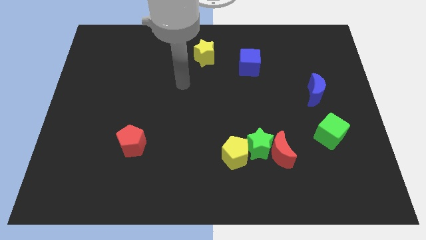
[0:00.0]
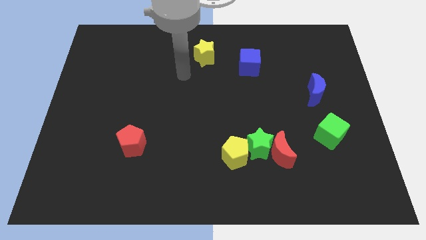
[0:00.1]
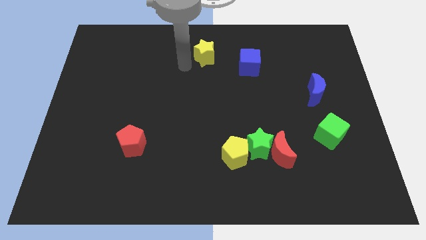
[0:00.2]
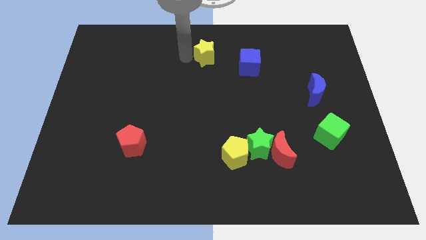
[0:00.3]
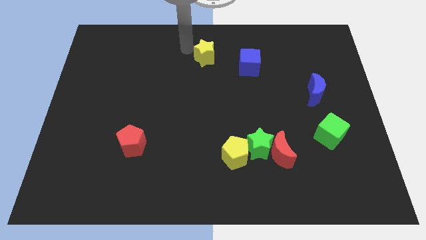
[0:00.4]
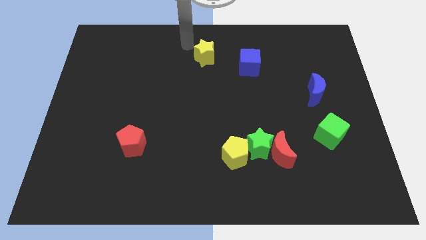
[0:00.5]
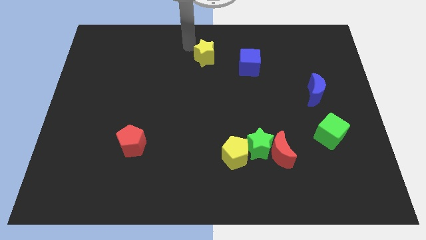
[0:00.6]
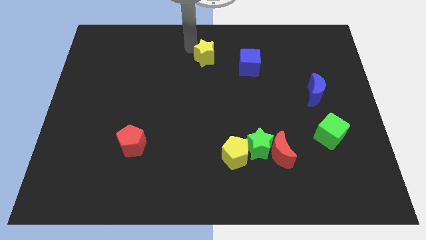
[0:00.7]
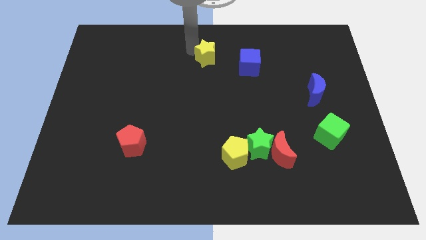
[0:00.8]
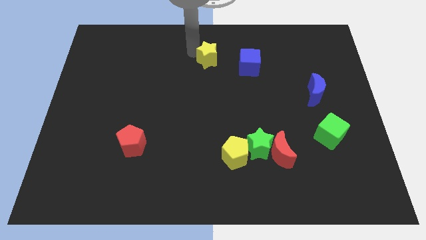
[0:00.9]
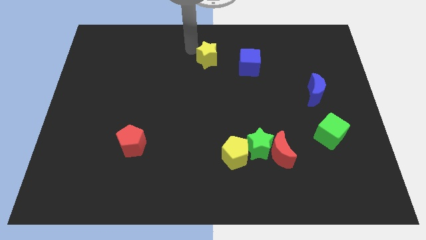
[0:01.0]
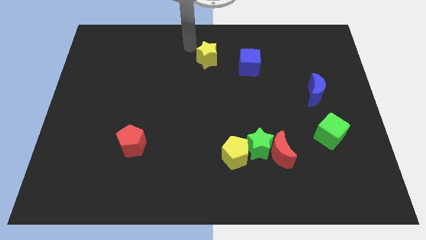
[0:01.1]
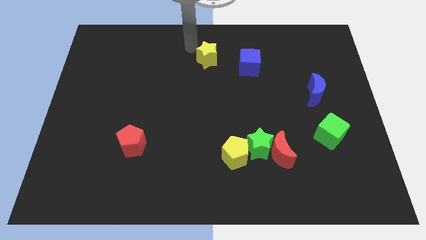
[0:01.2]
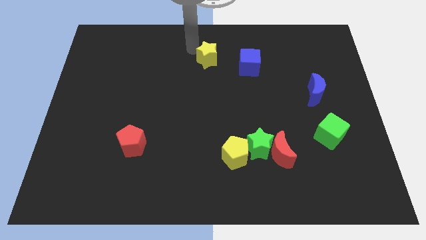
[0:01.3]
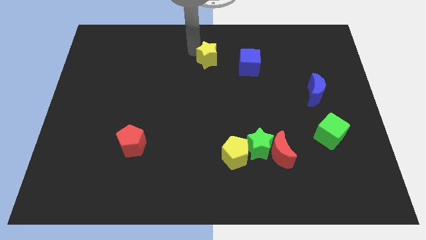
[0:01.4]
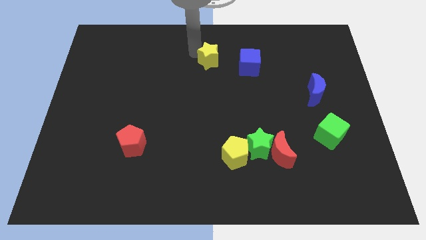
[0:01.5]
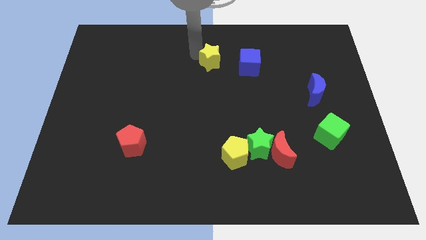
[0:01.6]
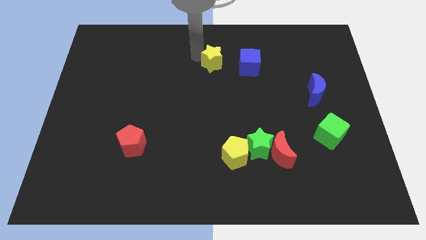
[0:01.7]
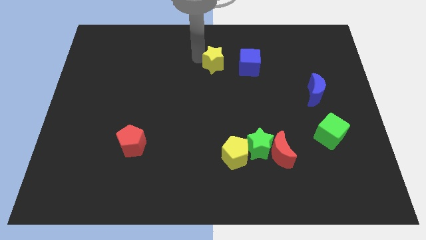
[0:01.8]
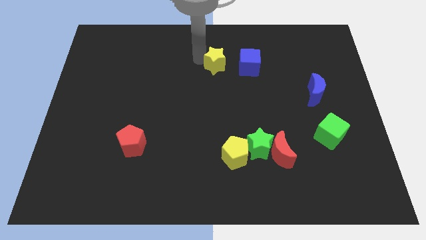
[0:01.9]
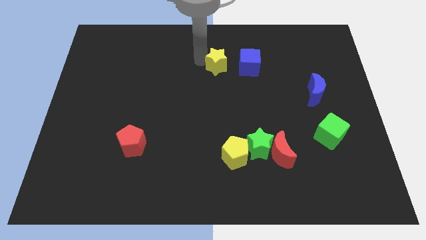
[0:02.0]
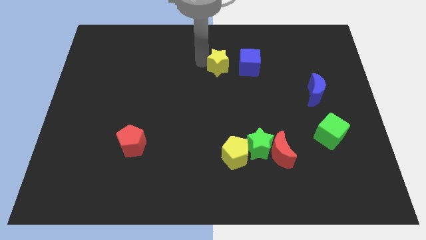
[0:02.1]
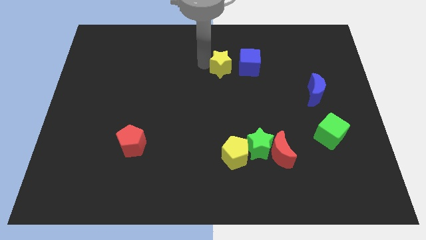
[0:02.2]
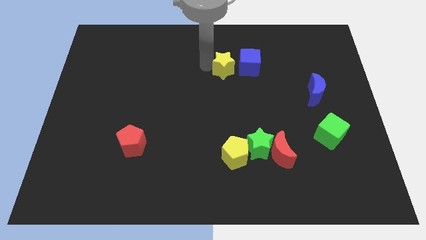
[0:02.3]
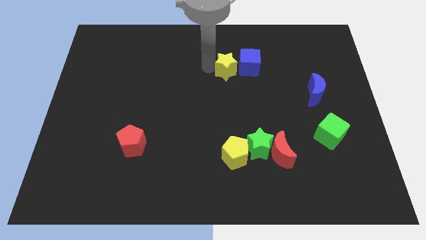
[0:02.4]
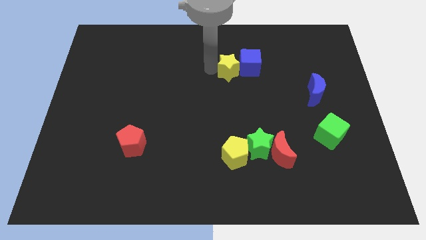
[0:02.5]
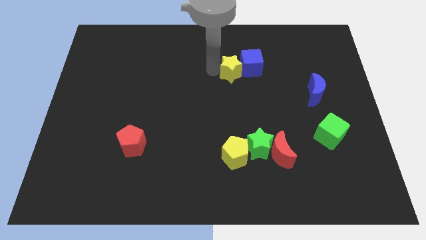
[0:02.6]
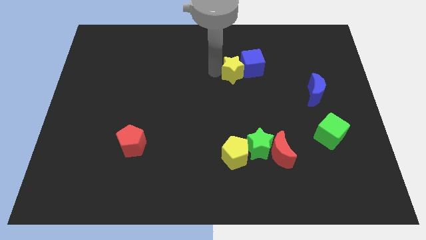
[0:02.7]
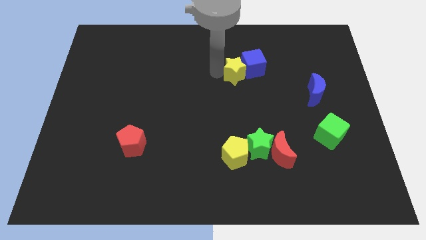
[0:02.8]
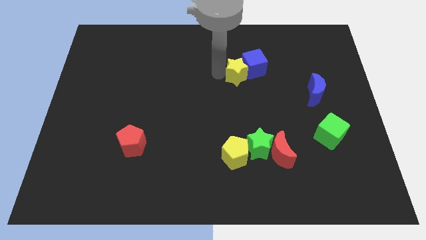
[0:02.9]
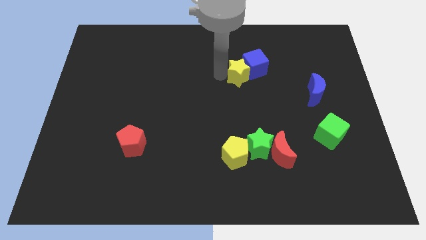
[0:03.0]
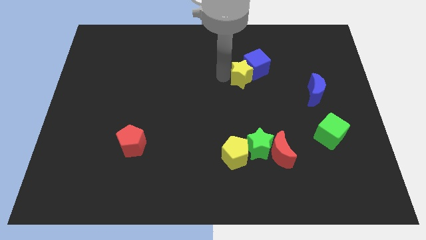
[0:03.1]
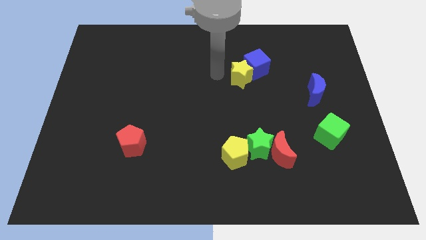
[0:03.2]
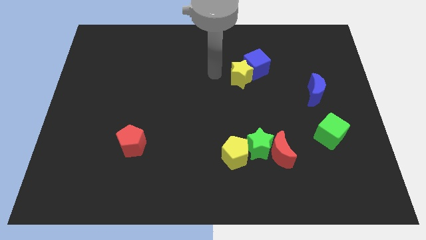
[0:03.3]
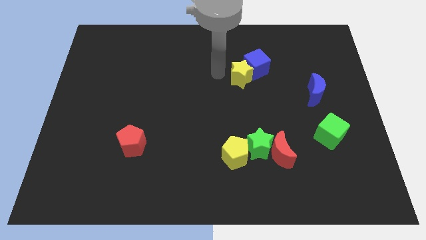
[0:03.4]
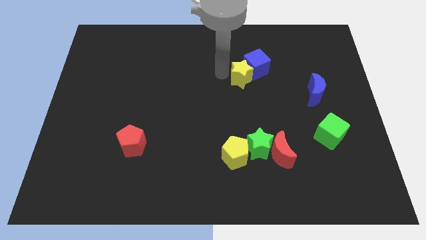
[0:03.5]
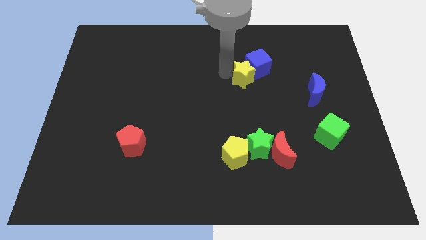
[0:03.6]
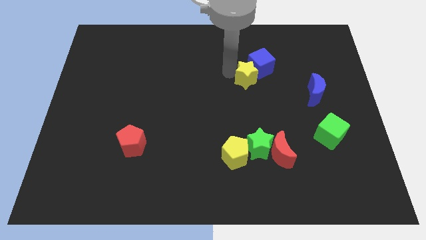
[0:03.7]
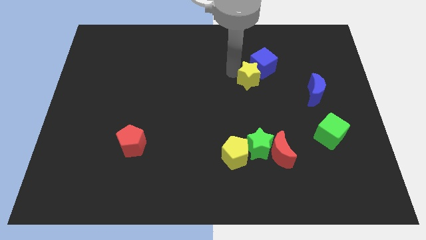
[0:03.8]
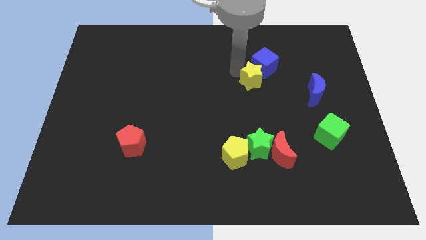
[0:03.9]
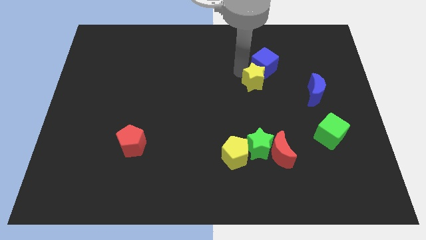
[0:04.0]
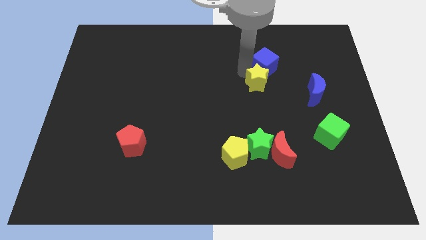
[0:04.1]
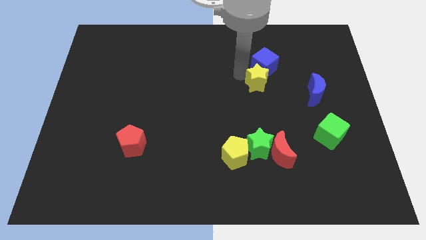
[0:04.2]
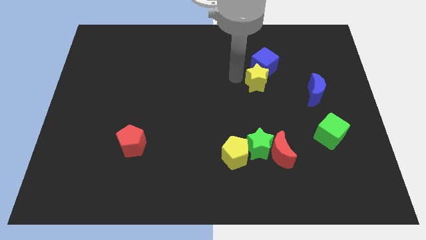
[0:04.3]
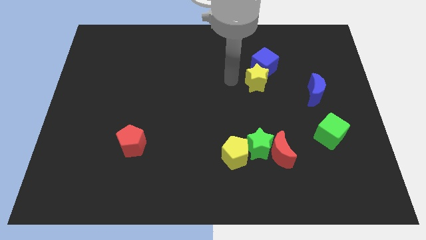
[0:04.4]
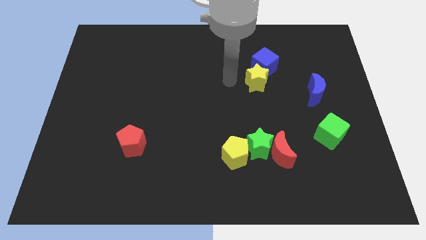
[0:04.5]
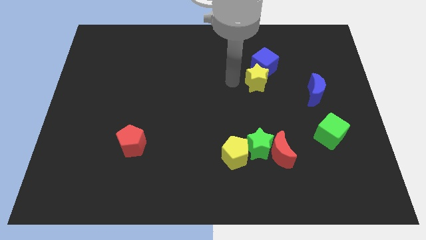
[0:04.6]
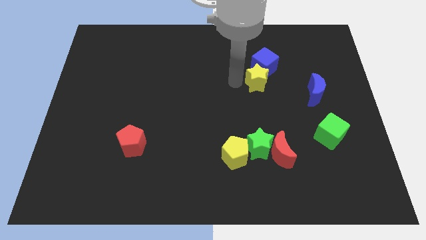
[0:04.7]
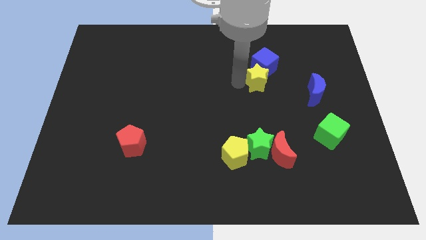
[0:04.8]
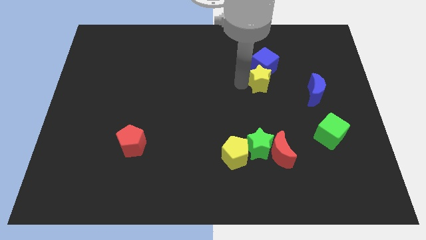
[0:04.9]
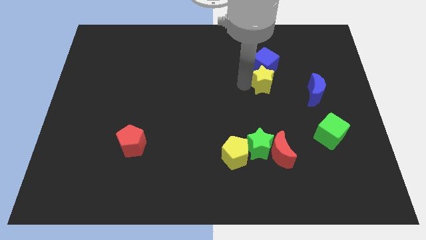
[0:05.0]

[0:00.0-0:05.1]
put the yellow star to the bottom right of the blue cube

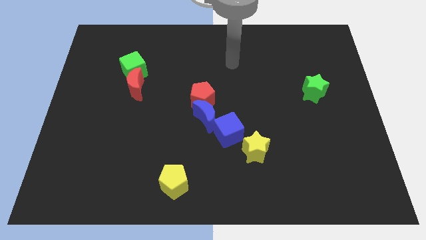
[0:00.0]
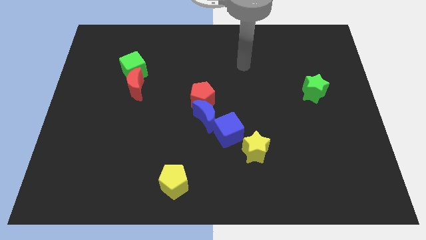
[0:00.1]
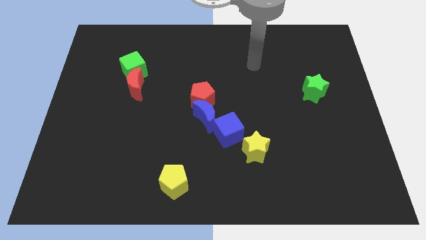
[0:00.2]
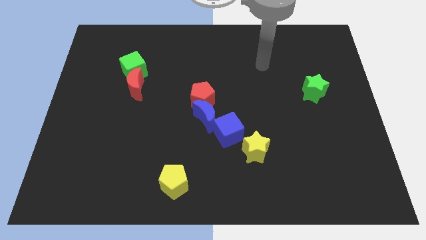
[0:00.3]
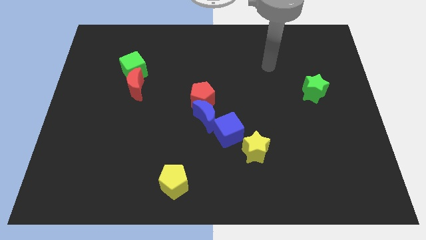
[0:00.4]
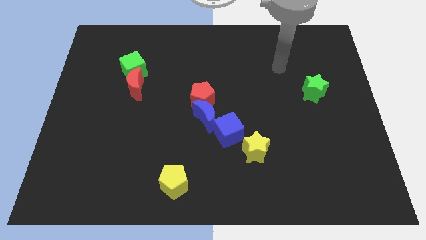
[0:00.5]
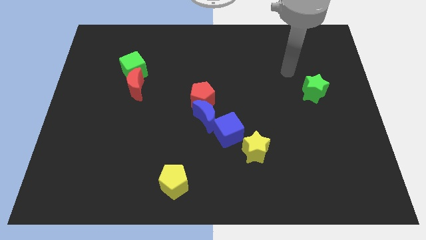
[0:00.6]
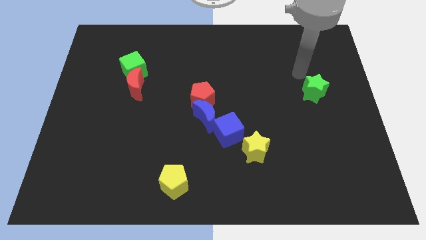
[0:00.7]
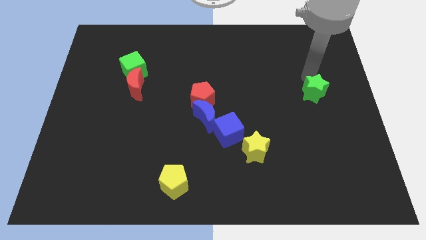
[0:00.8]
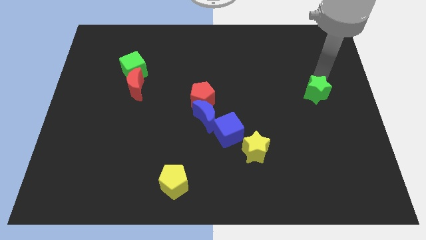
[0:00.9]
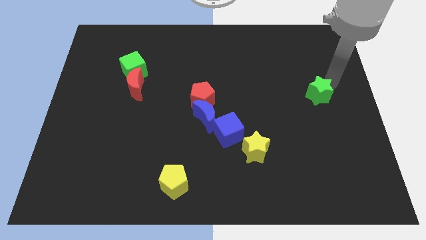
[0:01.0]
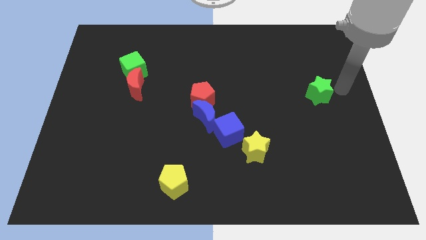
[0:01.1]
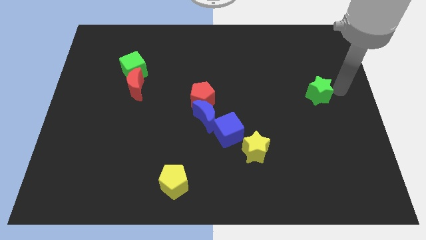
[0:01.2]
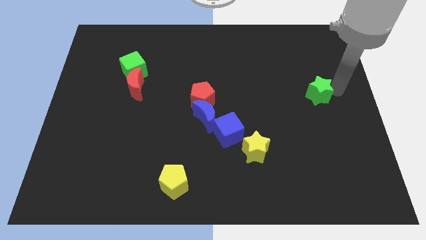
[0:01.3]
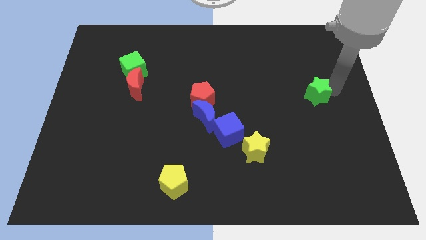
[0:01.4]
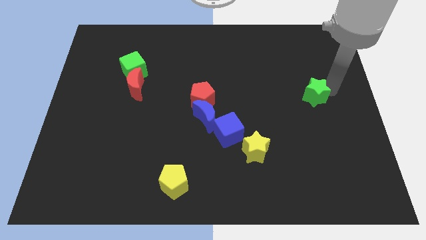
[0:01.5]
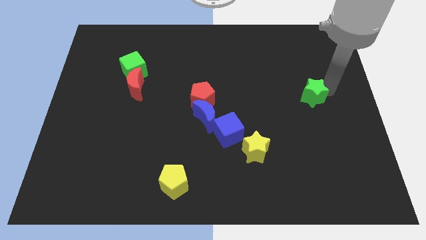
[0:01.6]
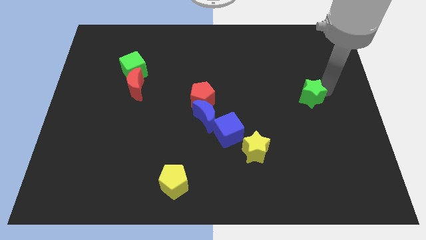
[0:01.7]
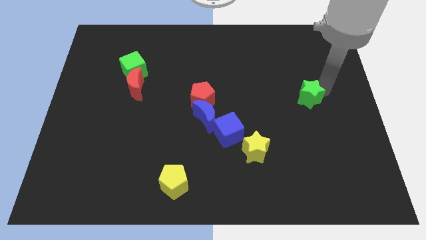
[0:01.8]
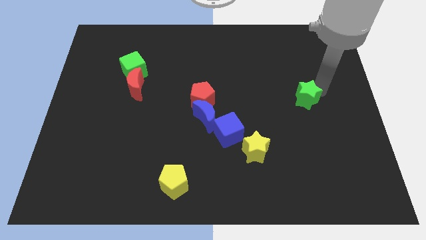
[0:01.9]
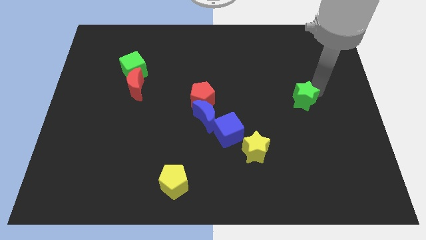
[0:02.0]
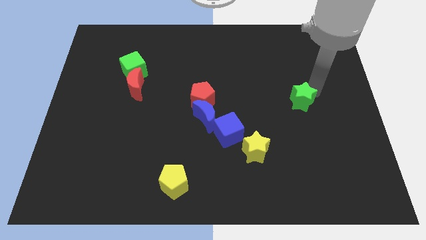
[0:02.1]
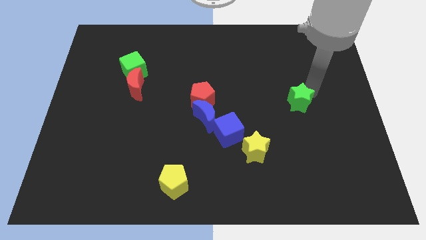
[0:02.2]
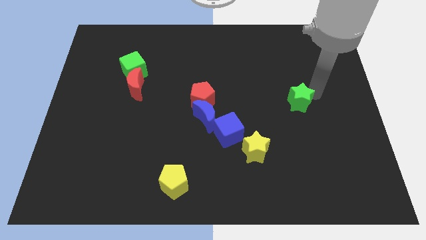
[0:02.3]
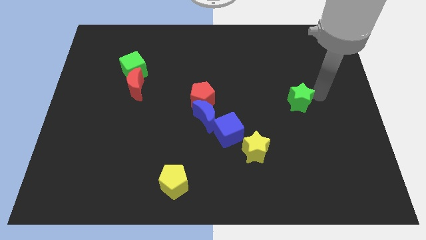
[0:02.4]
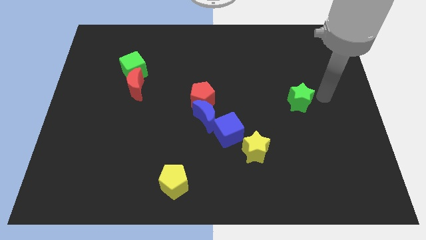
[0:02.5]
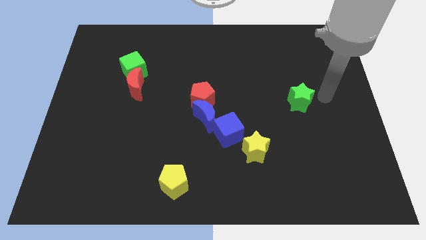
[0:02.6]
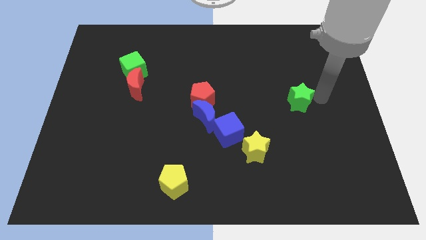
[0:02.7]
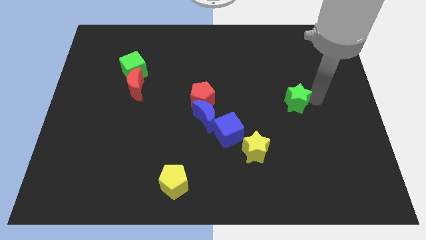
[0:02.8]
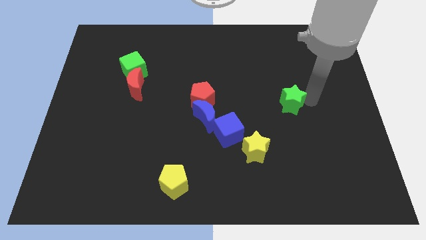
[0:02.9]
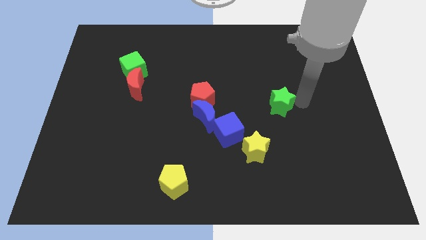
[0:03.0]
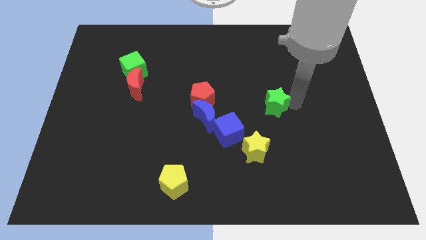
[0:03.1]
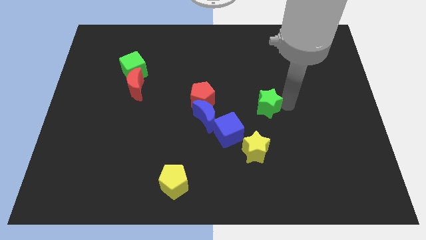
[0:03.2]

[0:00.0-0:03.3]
slide the green star to the top side of the yellow star
